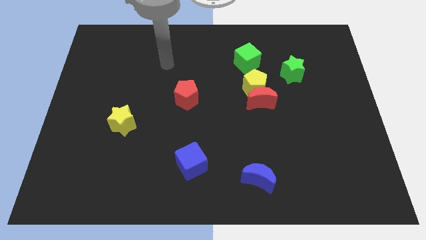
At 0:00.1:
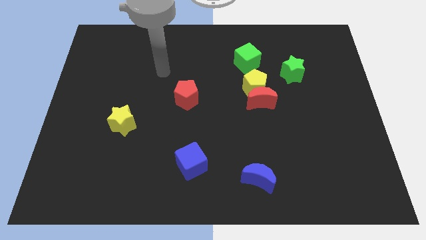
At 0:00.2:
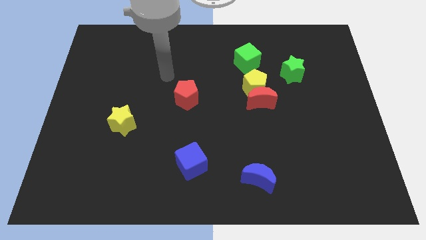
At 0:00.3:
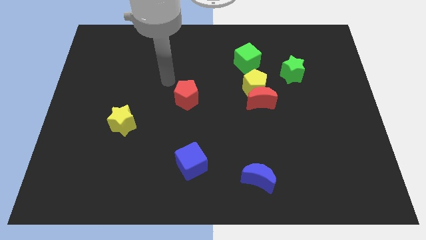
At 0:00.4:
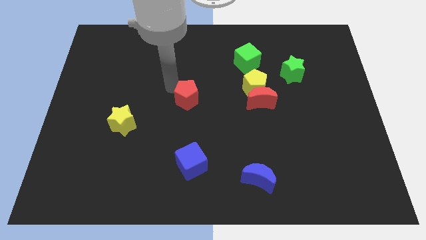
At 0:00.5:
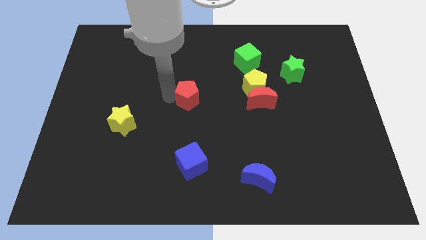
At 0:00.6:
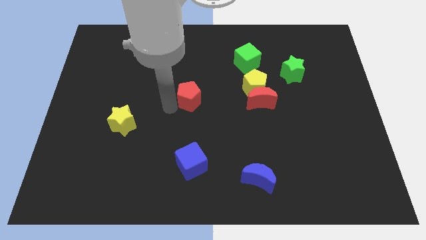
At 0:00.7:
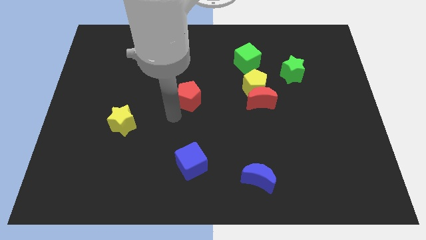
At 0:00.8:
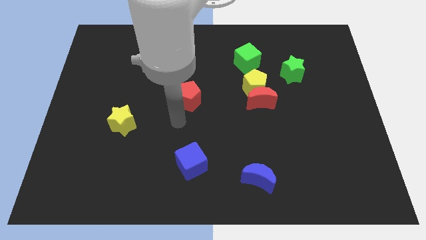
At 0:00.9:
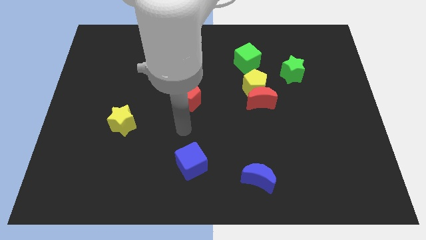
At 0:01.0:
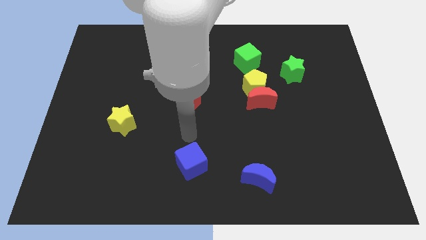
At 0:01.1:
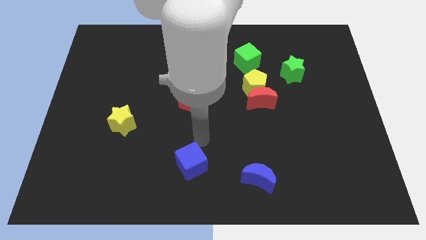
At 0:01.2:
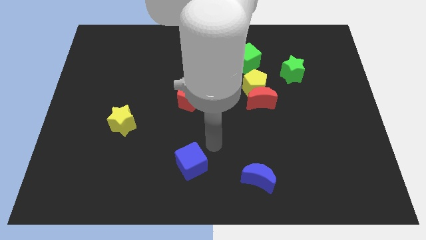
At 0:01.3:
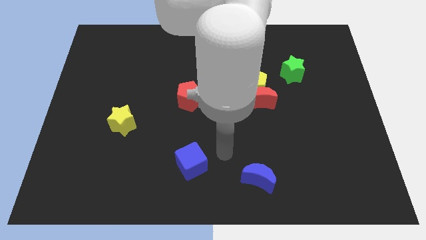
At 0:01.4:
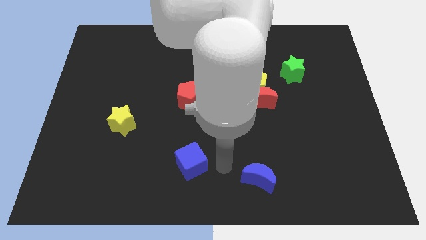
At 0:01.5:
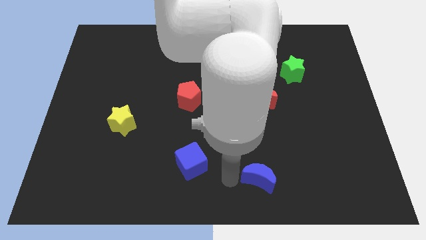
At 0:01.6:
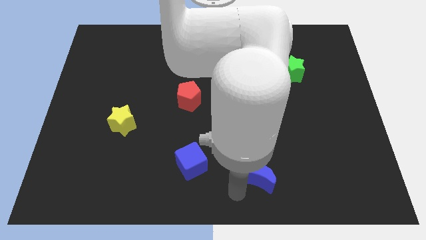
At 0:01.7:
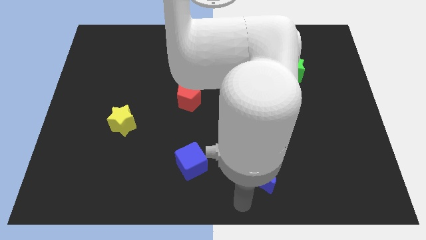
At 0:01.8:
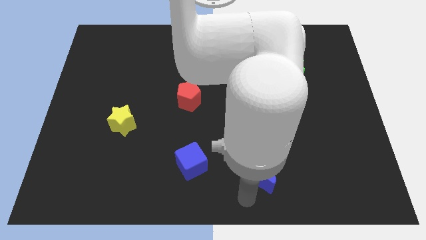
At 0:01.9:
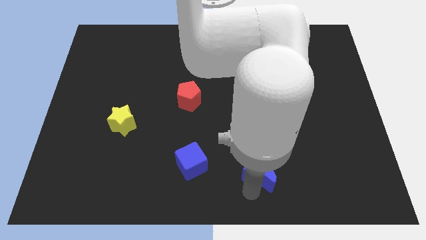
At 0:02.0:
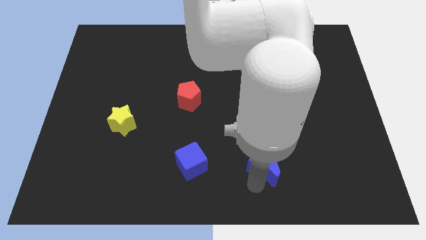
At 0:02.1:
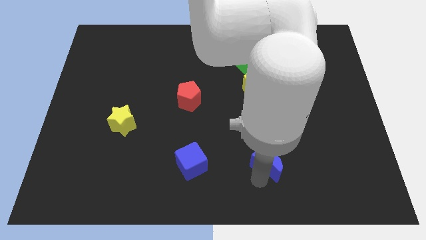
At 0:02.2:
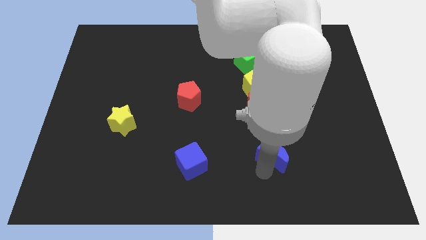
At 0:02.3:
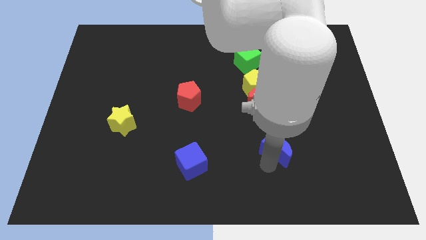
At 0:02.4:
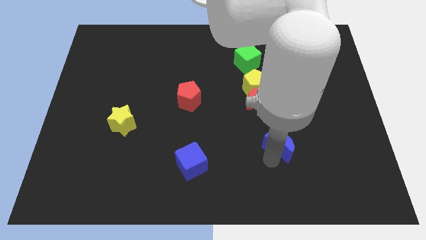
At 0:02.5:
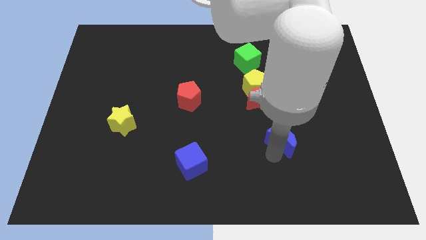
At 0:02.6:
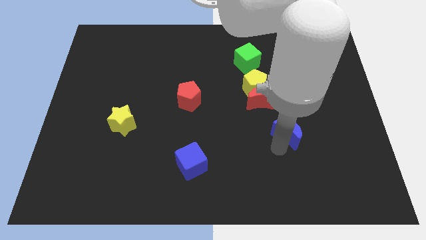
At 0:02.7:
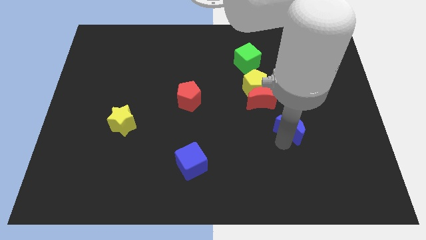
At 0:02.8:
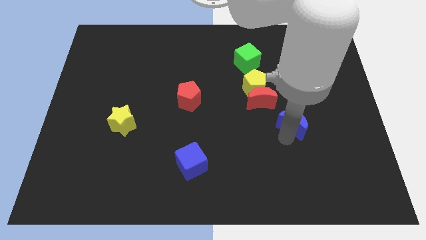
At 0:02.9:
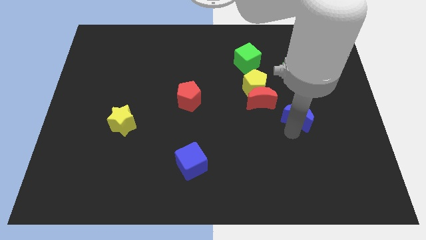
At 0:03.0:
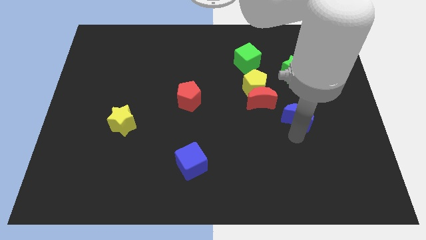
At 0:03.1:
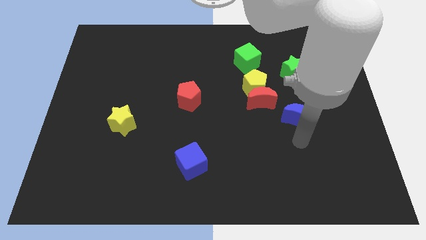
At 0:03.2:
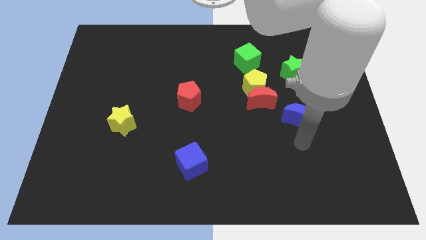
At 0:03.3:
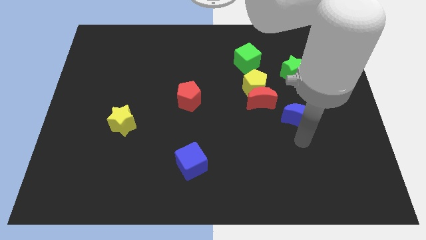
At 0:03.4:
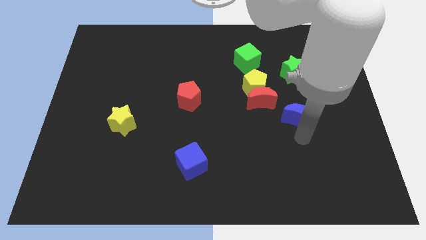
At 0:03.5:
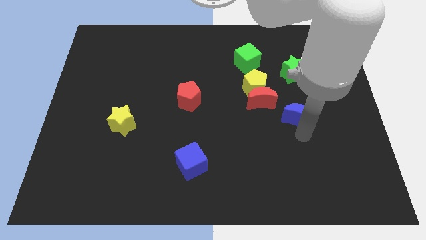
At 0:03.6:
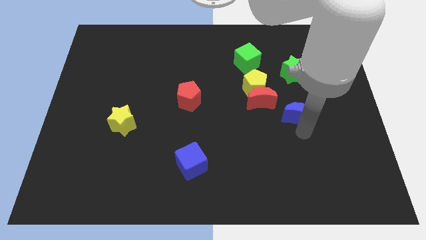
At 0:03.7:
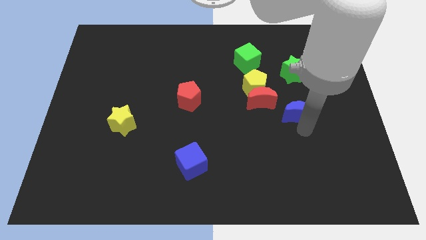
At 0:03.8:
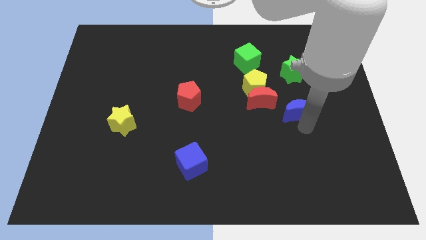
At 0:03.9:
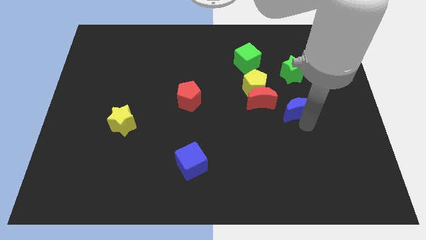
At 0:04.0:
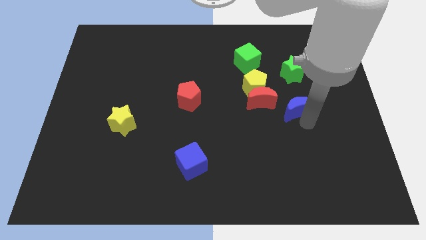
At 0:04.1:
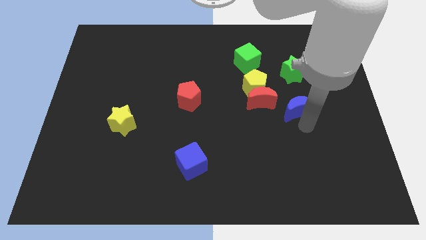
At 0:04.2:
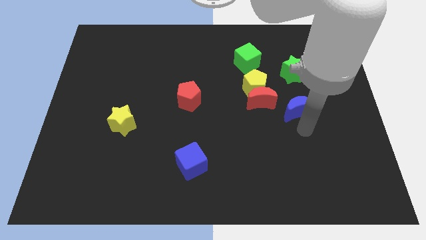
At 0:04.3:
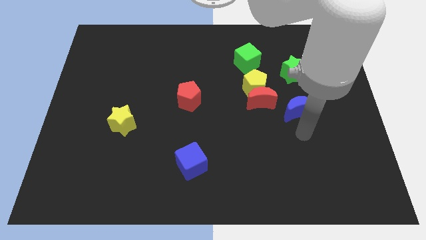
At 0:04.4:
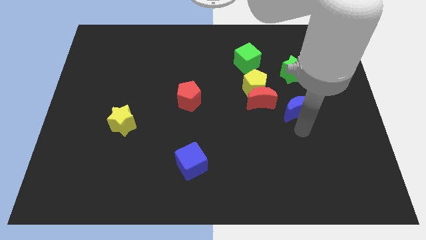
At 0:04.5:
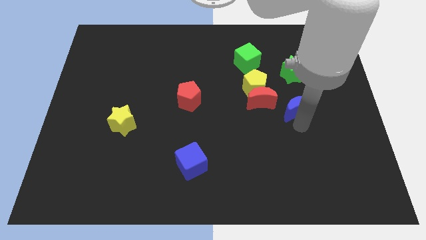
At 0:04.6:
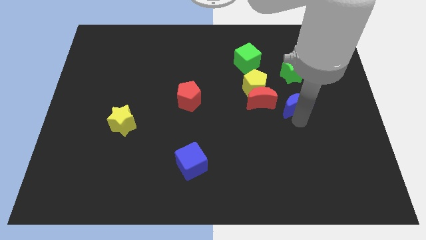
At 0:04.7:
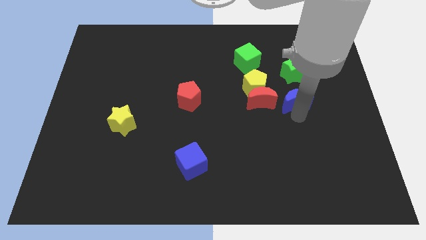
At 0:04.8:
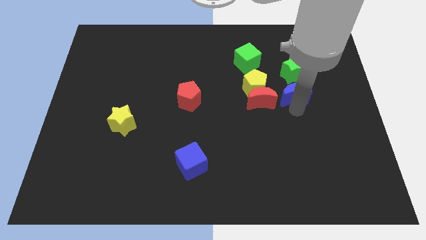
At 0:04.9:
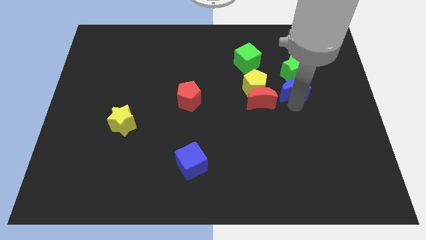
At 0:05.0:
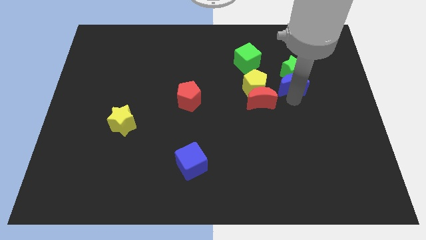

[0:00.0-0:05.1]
slide the blue moon close to the green star

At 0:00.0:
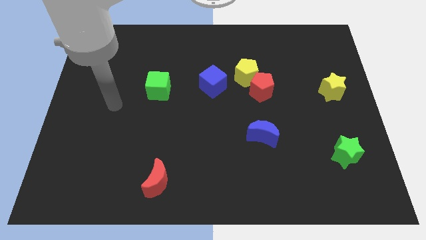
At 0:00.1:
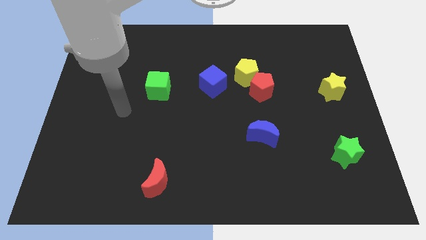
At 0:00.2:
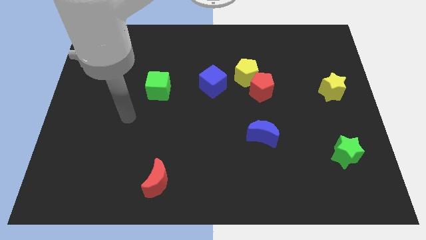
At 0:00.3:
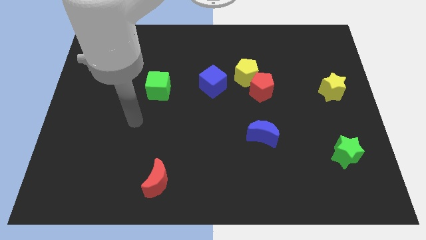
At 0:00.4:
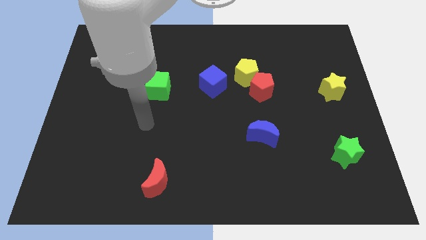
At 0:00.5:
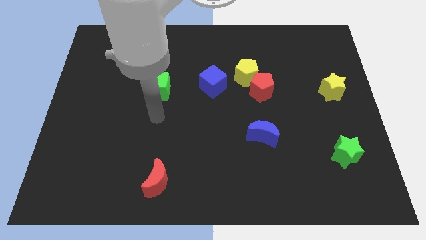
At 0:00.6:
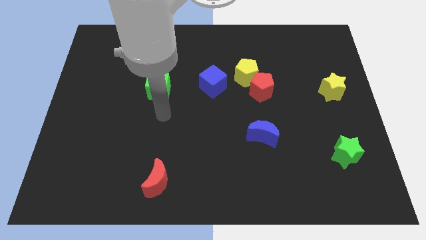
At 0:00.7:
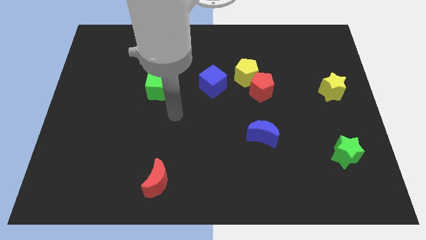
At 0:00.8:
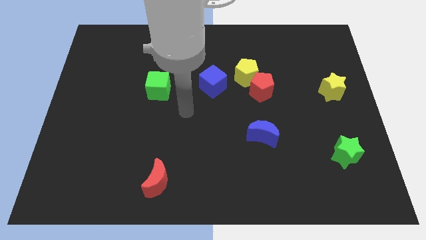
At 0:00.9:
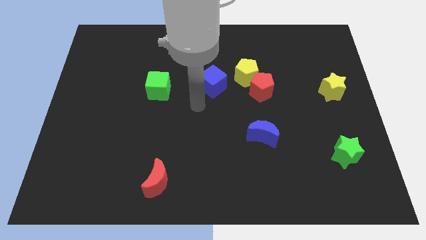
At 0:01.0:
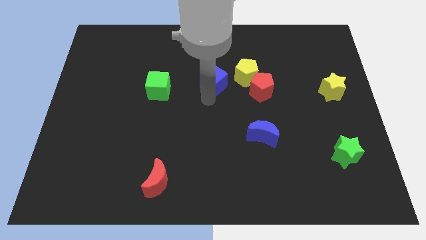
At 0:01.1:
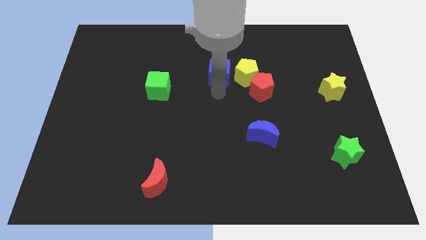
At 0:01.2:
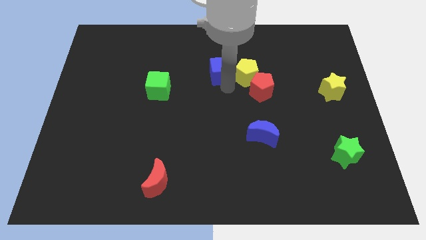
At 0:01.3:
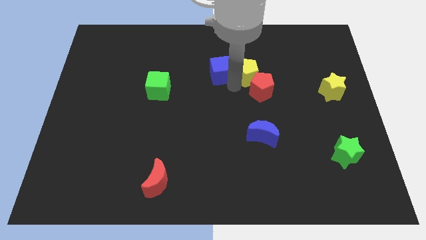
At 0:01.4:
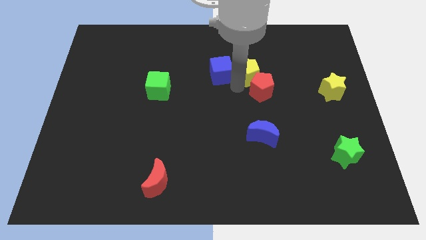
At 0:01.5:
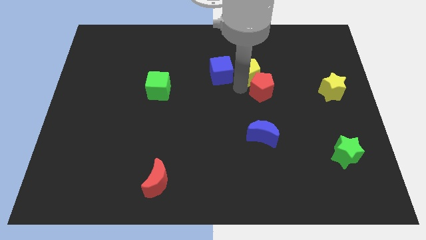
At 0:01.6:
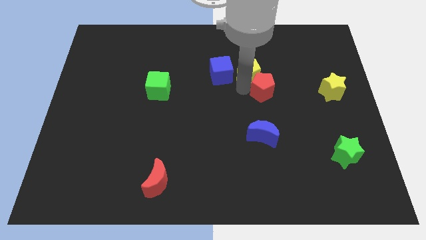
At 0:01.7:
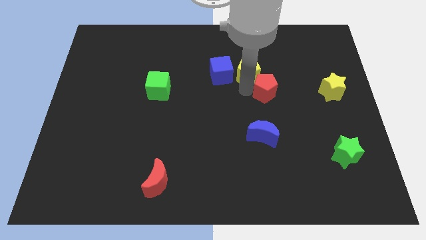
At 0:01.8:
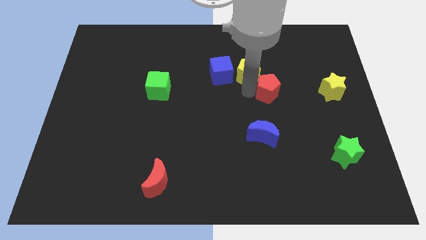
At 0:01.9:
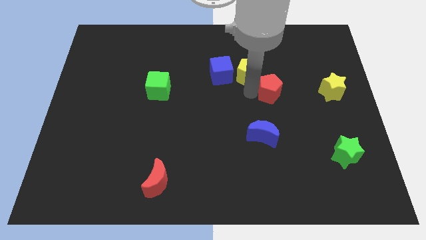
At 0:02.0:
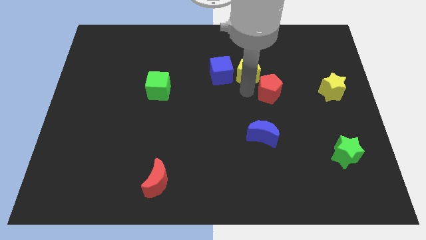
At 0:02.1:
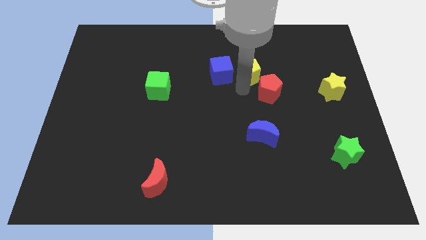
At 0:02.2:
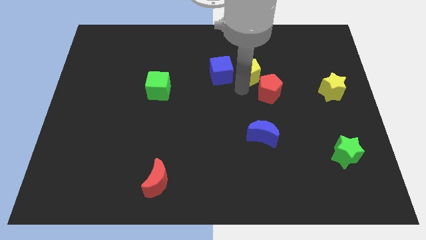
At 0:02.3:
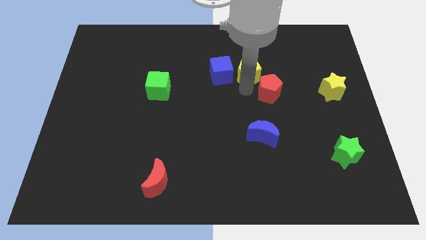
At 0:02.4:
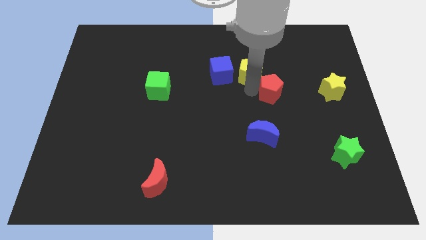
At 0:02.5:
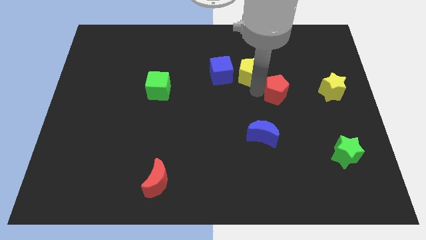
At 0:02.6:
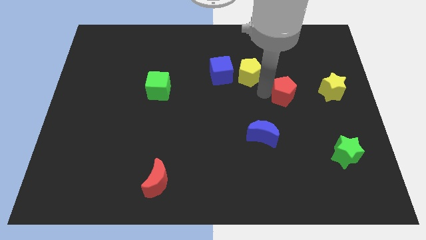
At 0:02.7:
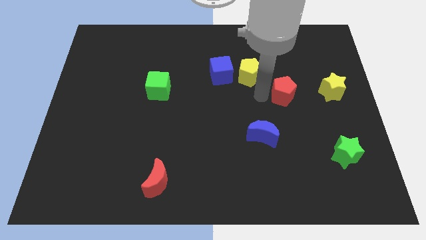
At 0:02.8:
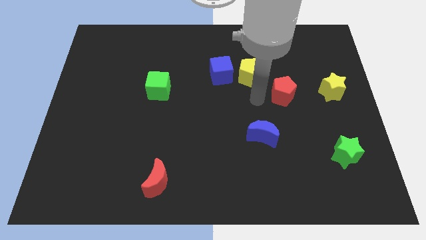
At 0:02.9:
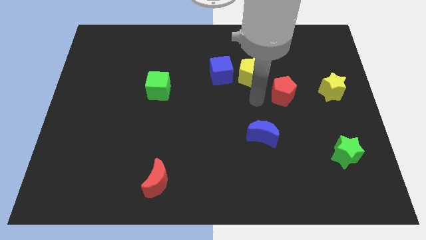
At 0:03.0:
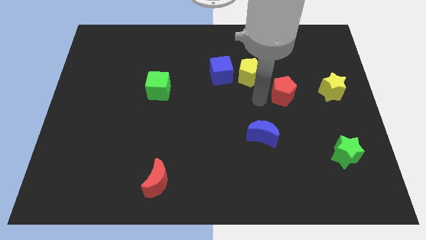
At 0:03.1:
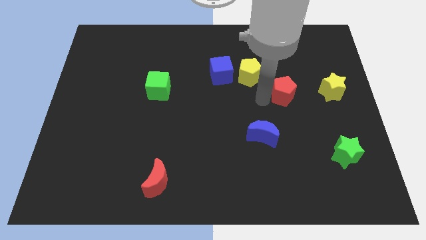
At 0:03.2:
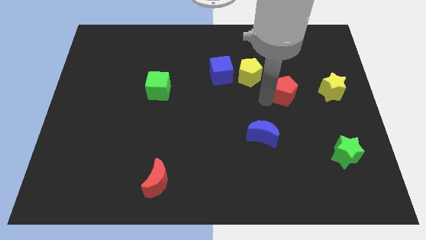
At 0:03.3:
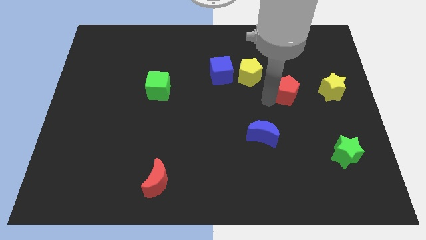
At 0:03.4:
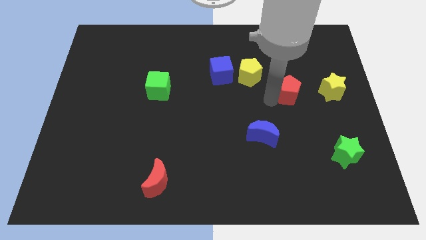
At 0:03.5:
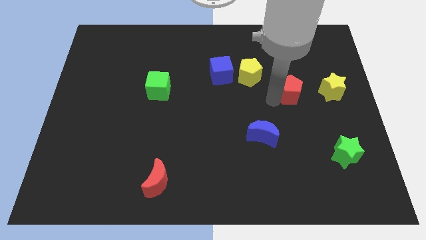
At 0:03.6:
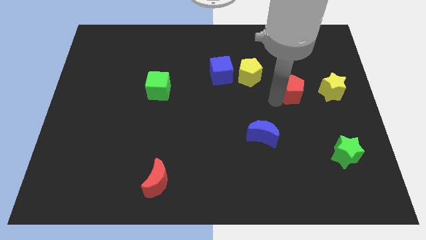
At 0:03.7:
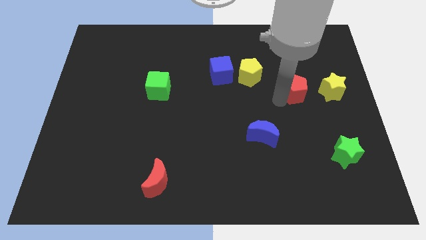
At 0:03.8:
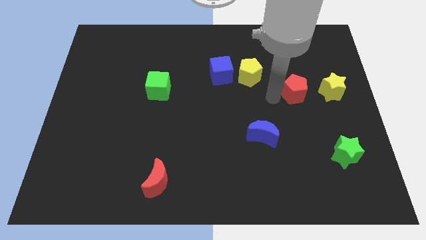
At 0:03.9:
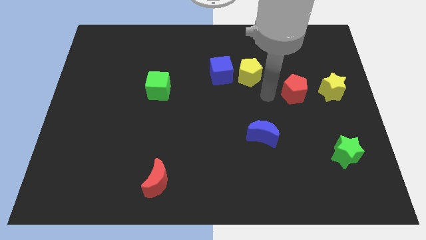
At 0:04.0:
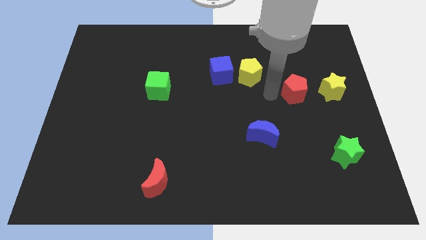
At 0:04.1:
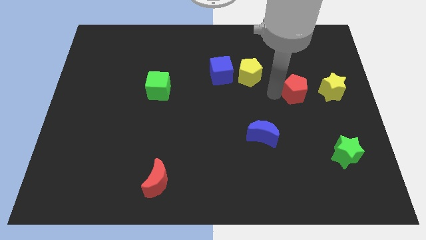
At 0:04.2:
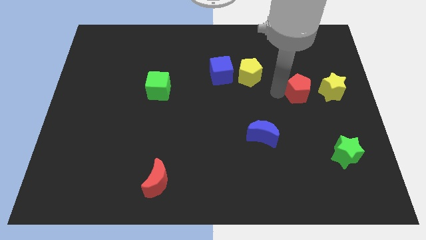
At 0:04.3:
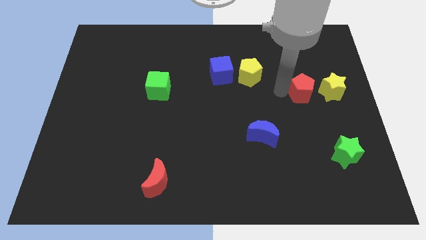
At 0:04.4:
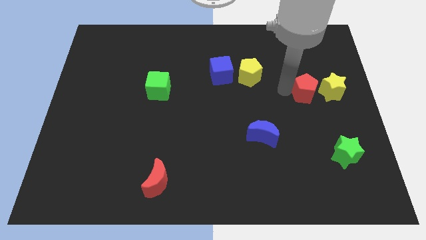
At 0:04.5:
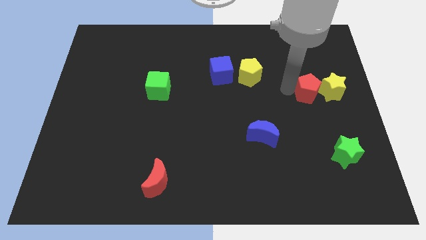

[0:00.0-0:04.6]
slide the red pentagon next to the yellow star
